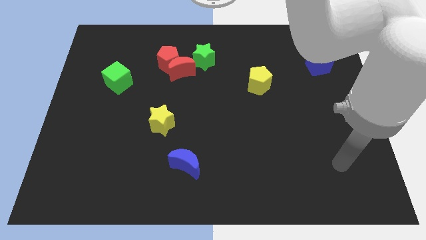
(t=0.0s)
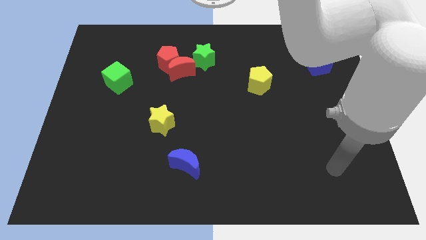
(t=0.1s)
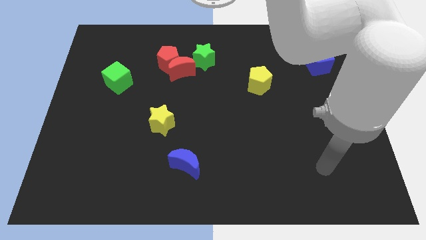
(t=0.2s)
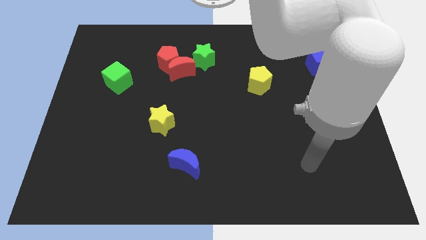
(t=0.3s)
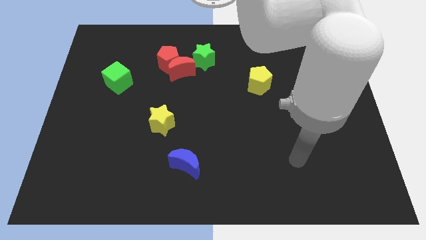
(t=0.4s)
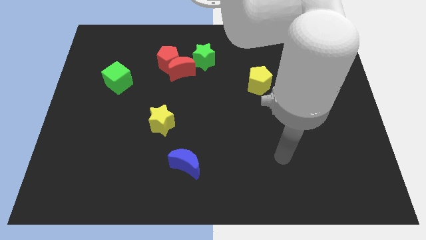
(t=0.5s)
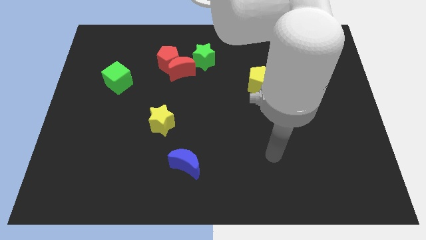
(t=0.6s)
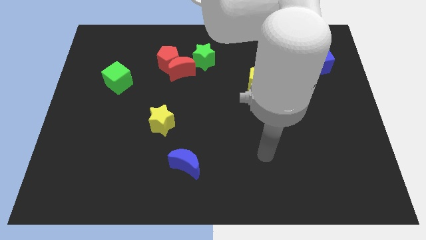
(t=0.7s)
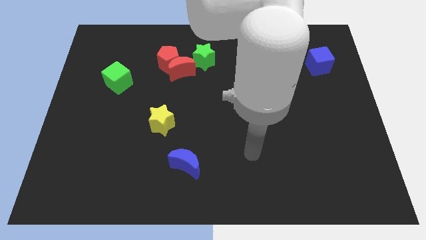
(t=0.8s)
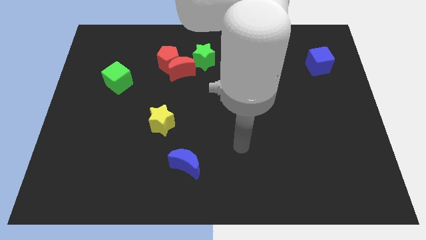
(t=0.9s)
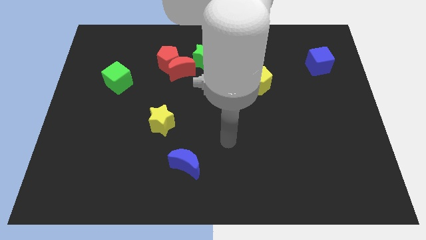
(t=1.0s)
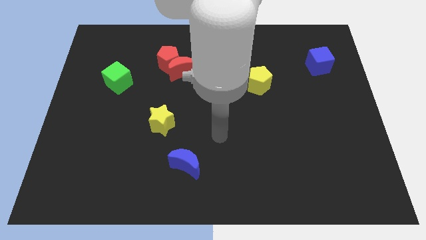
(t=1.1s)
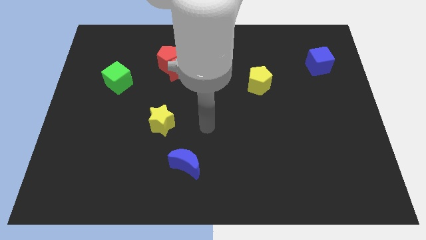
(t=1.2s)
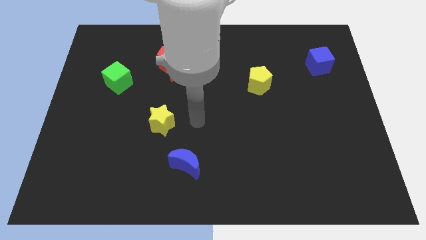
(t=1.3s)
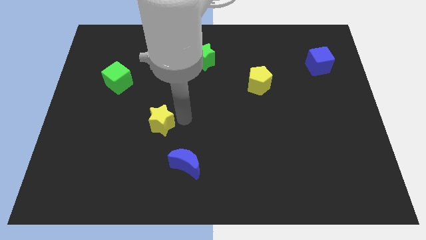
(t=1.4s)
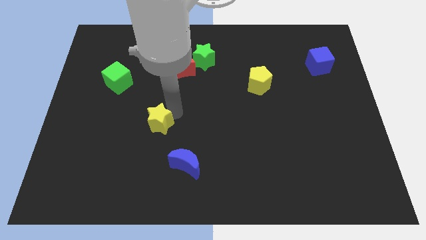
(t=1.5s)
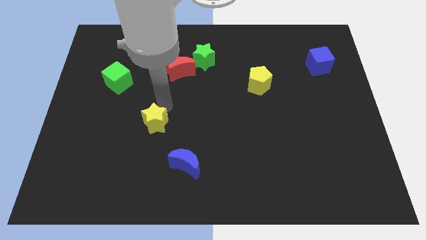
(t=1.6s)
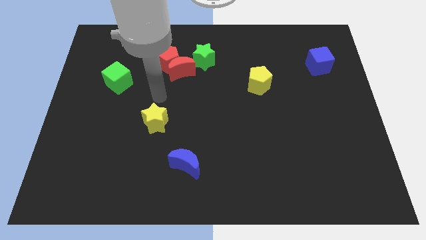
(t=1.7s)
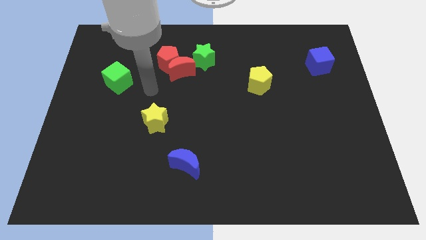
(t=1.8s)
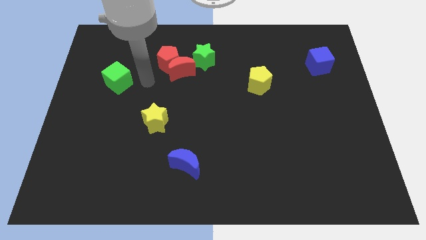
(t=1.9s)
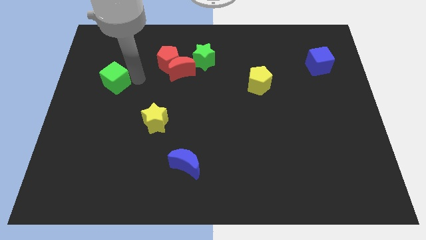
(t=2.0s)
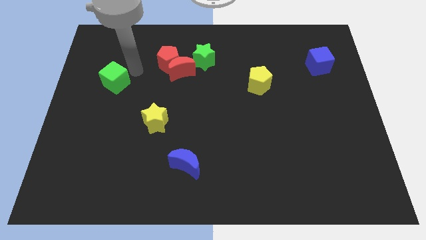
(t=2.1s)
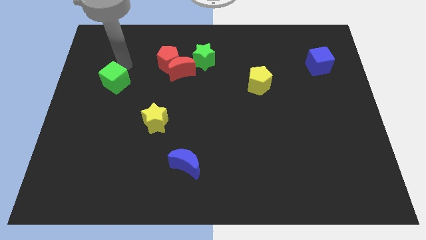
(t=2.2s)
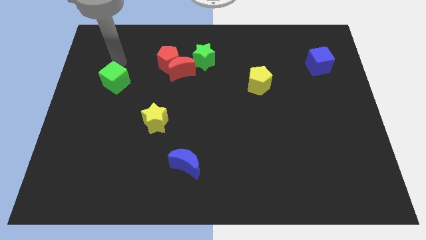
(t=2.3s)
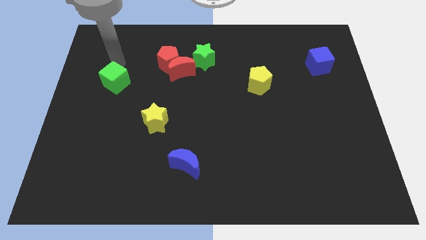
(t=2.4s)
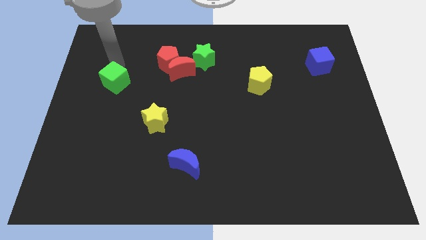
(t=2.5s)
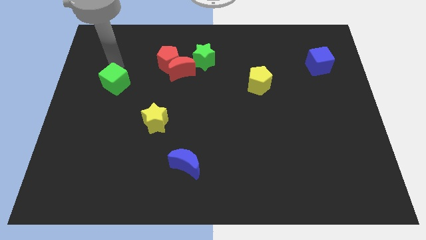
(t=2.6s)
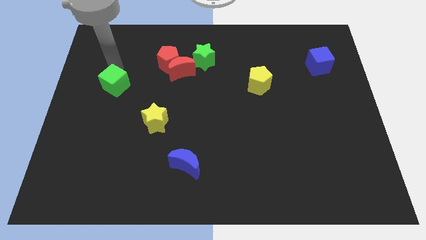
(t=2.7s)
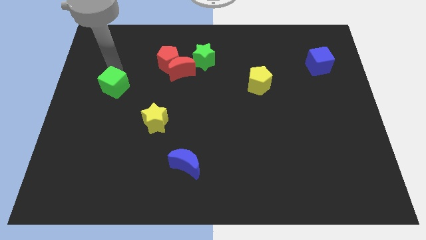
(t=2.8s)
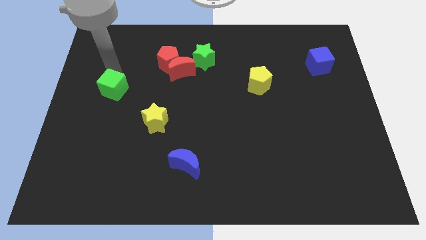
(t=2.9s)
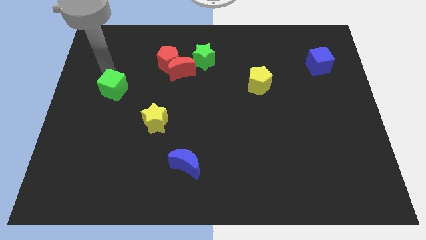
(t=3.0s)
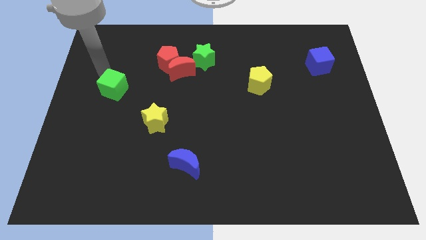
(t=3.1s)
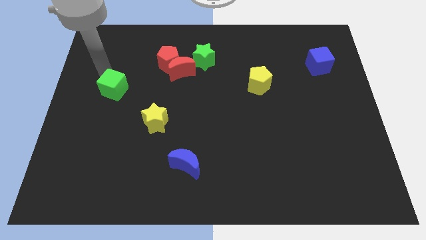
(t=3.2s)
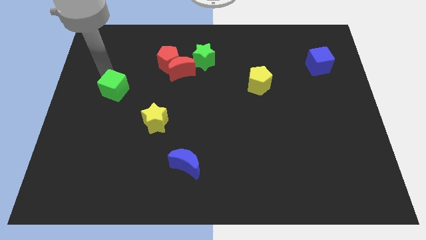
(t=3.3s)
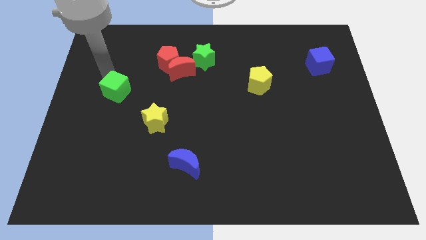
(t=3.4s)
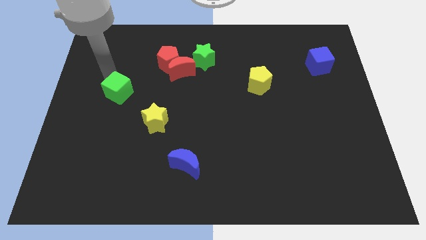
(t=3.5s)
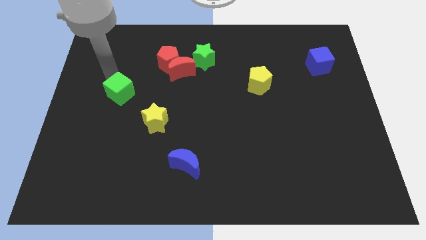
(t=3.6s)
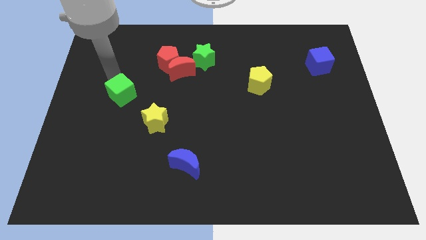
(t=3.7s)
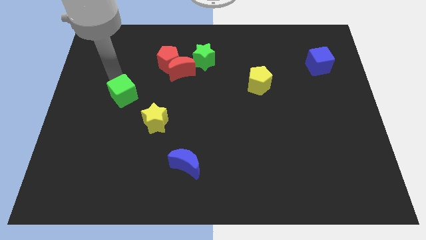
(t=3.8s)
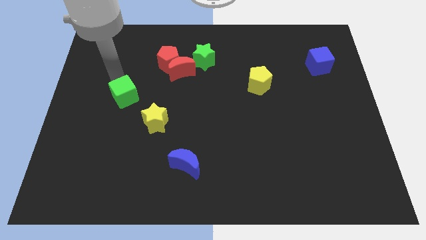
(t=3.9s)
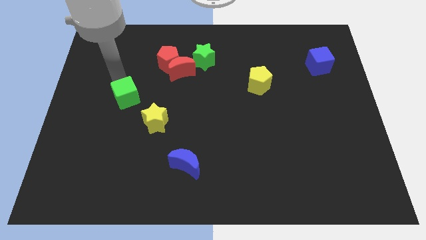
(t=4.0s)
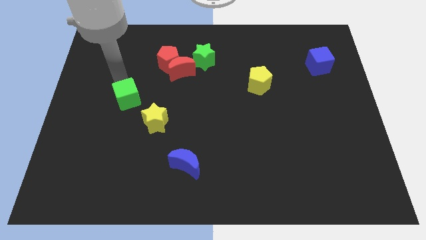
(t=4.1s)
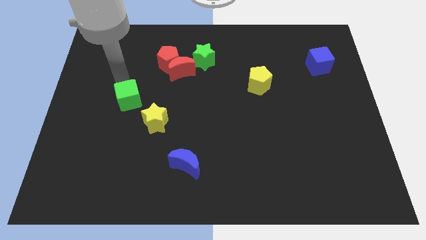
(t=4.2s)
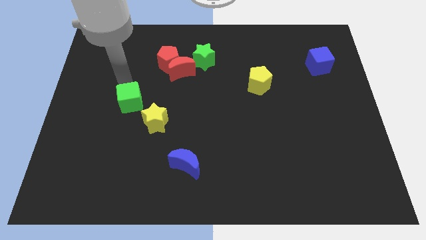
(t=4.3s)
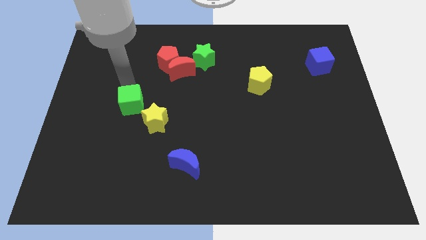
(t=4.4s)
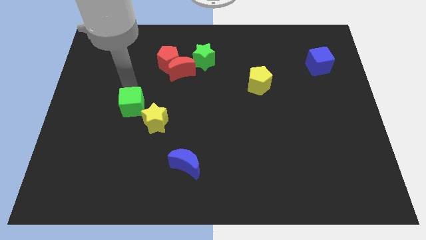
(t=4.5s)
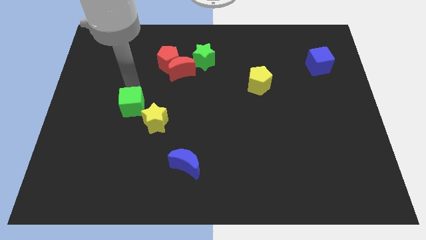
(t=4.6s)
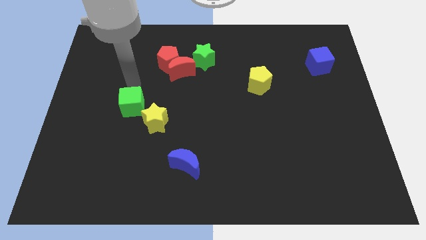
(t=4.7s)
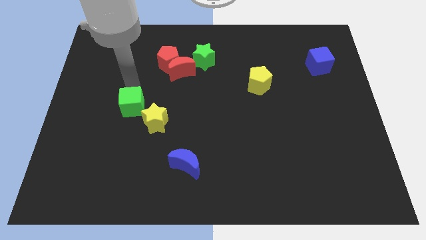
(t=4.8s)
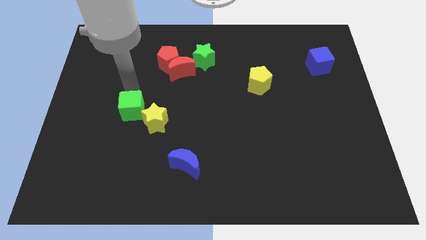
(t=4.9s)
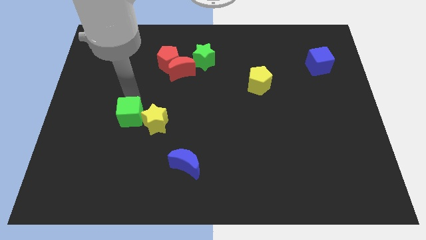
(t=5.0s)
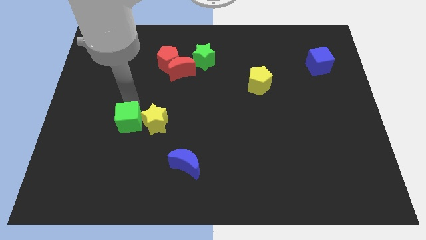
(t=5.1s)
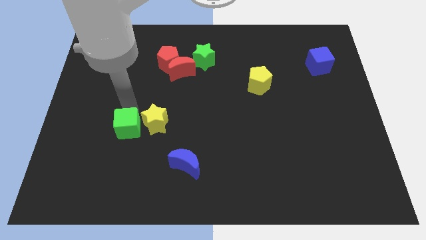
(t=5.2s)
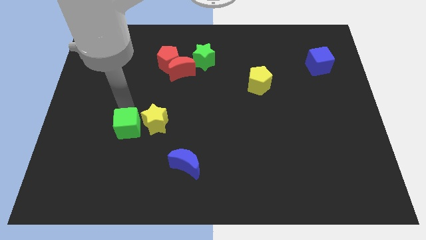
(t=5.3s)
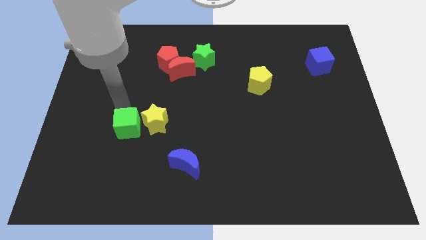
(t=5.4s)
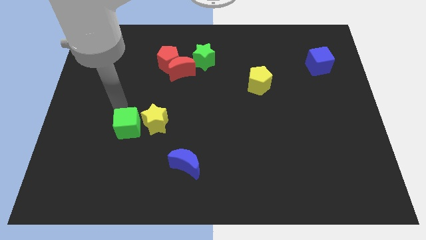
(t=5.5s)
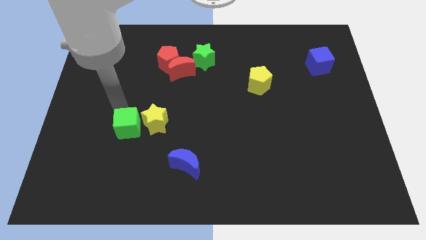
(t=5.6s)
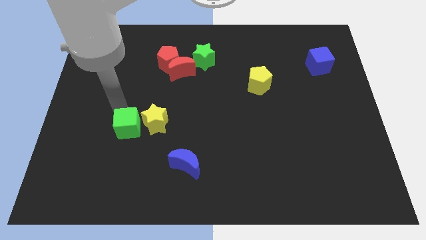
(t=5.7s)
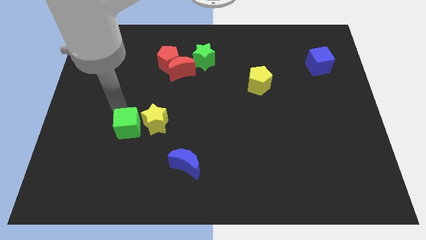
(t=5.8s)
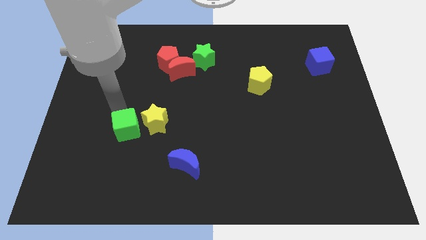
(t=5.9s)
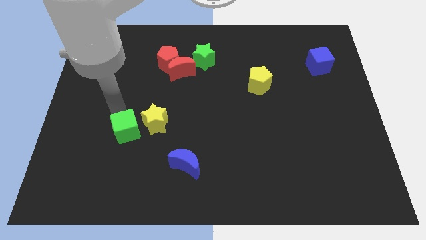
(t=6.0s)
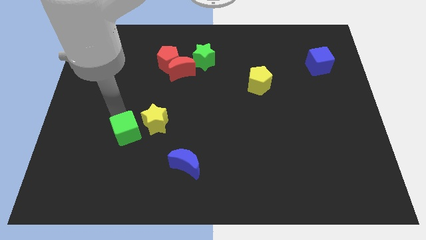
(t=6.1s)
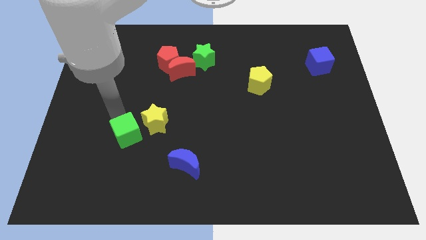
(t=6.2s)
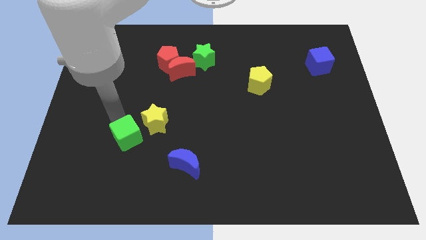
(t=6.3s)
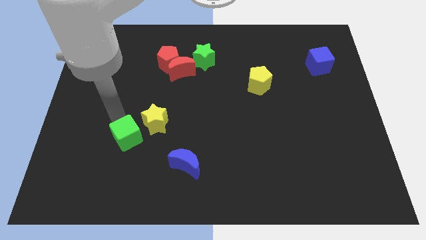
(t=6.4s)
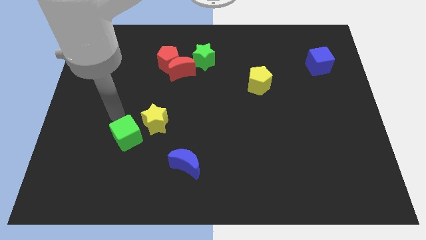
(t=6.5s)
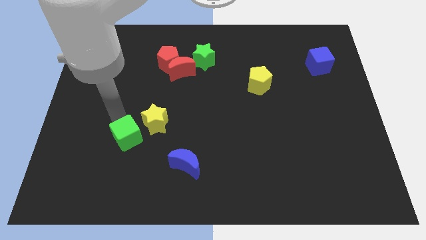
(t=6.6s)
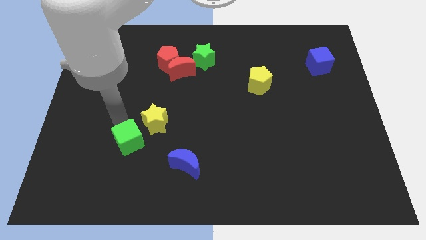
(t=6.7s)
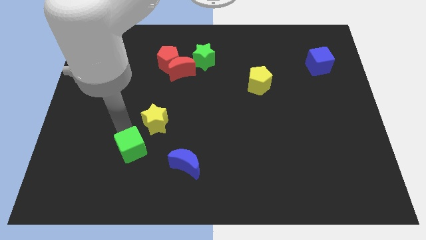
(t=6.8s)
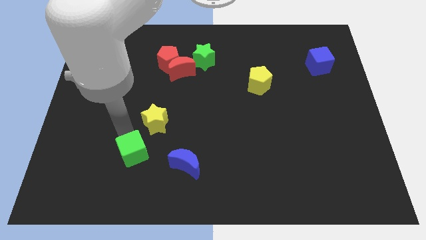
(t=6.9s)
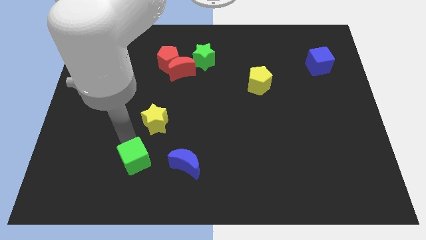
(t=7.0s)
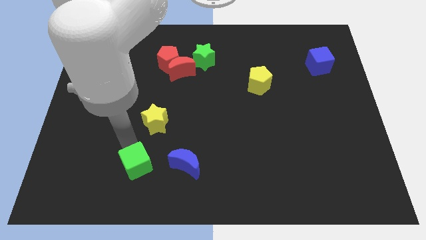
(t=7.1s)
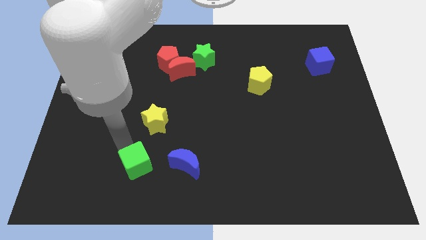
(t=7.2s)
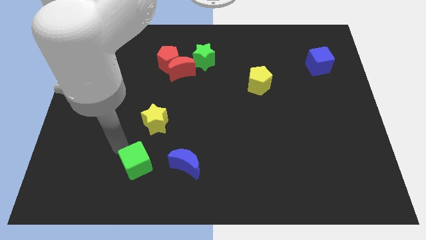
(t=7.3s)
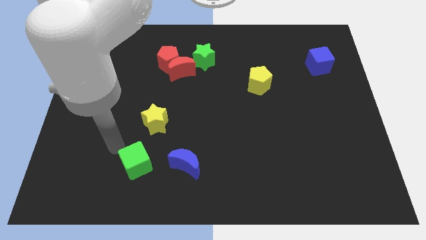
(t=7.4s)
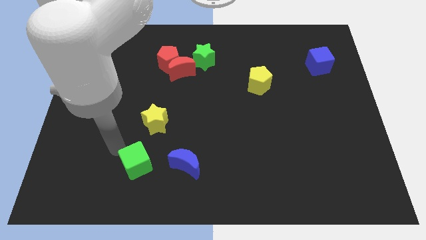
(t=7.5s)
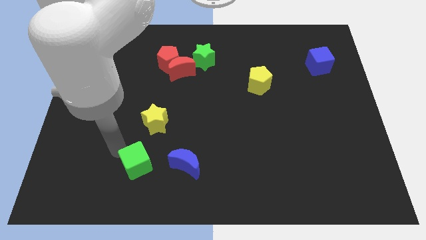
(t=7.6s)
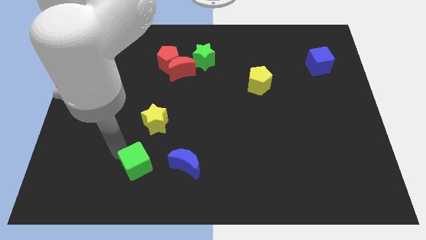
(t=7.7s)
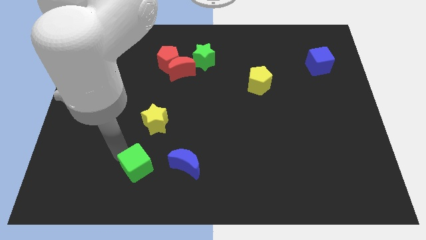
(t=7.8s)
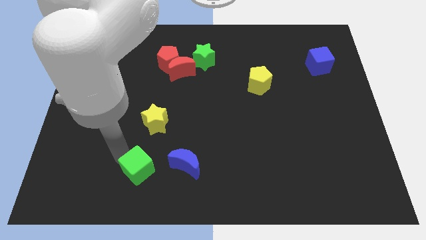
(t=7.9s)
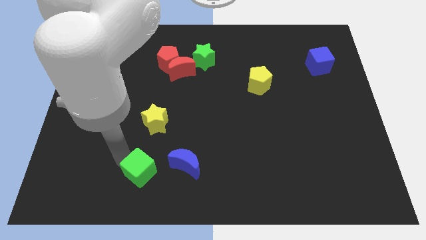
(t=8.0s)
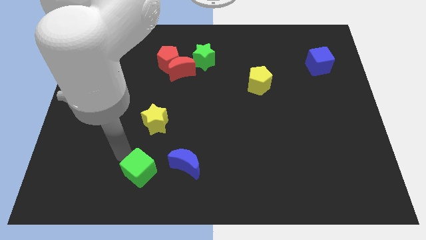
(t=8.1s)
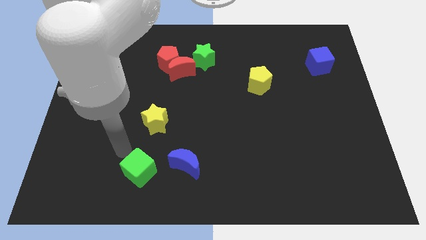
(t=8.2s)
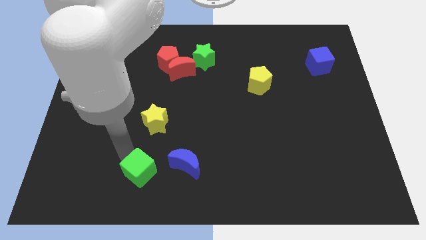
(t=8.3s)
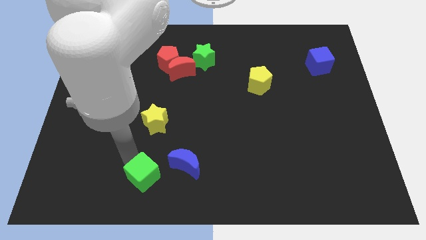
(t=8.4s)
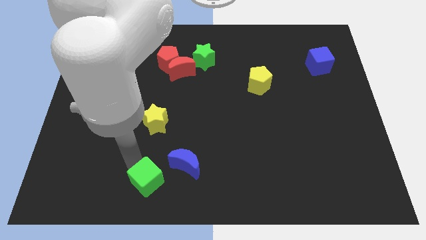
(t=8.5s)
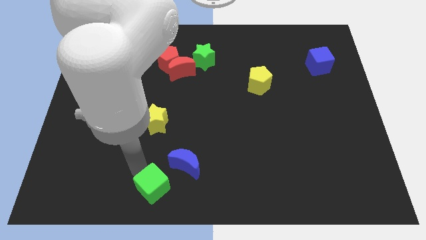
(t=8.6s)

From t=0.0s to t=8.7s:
put the green cube to the bottom side

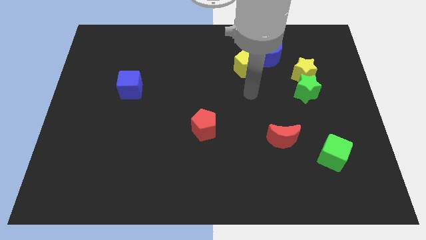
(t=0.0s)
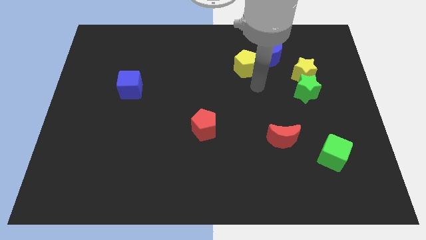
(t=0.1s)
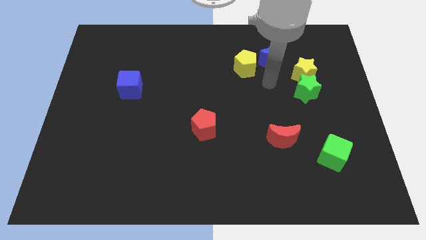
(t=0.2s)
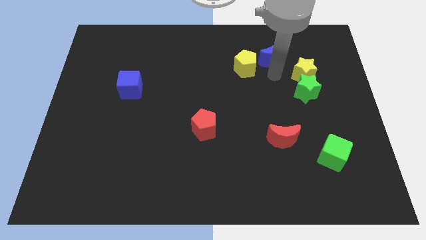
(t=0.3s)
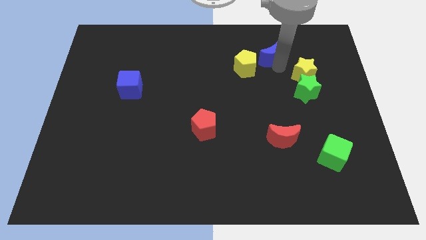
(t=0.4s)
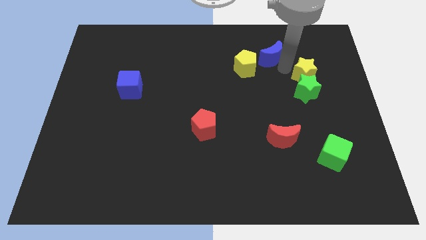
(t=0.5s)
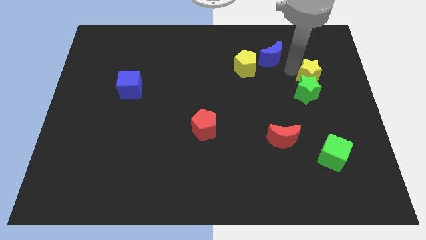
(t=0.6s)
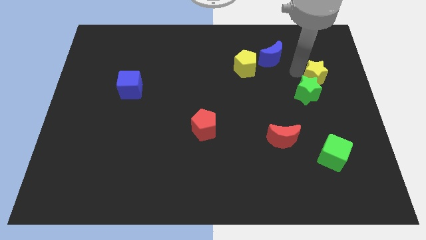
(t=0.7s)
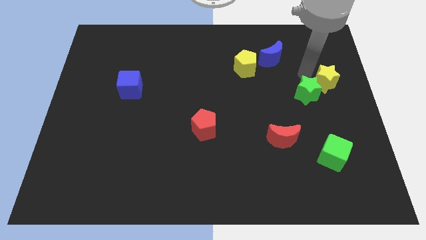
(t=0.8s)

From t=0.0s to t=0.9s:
put the yellow star to the right side
